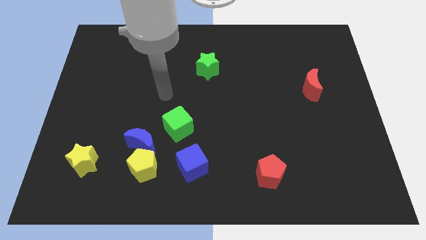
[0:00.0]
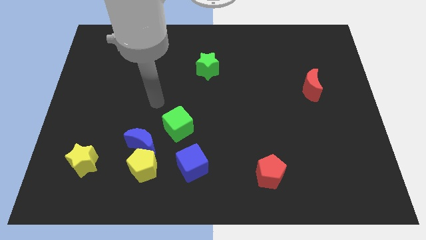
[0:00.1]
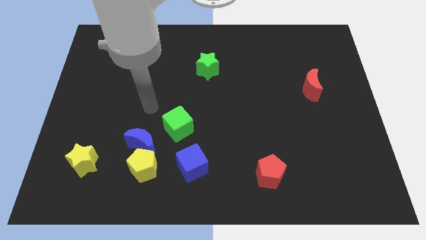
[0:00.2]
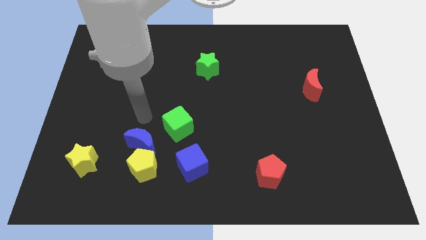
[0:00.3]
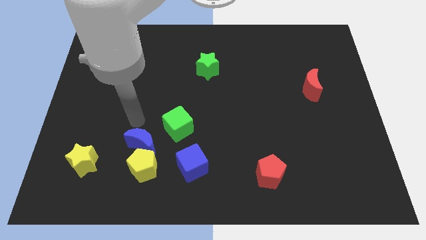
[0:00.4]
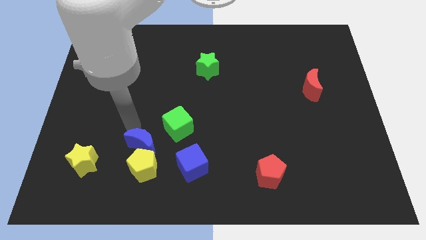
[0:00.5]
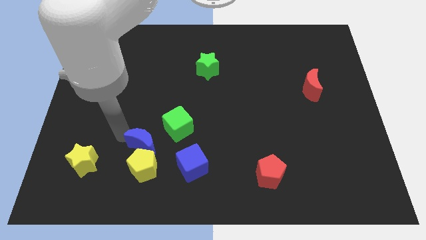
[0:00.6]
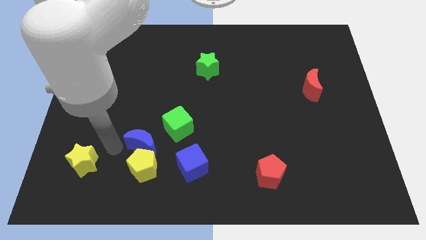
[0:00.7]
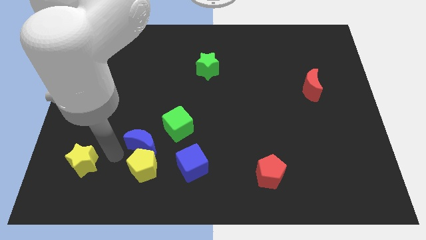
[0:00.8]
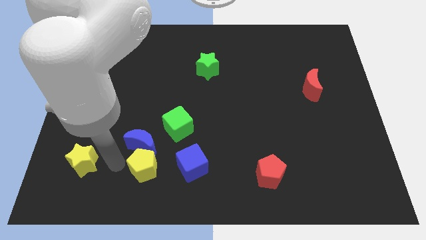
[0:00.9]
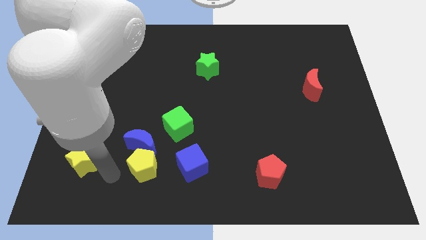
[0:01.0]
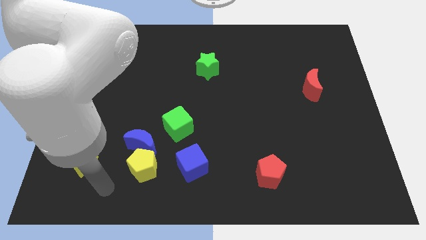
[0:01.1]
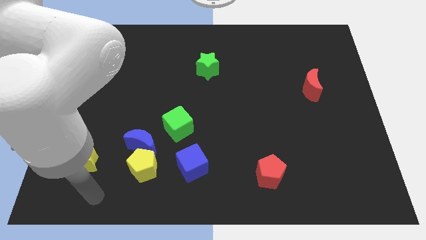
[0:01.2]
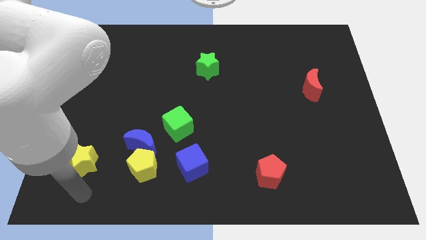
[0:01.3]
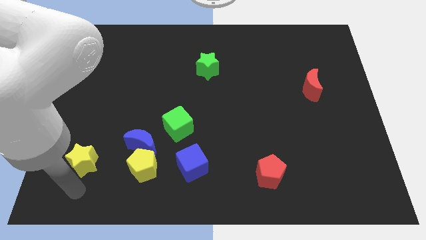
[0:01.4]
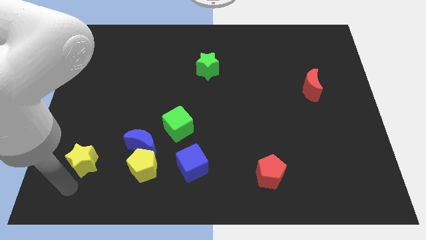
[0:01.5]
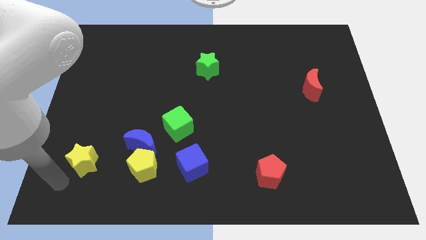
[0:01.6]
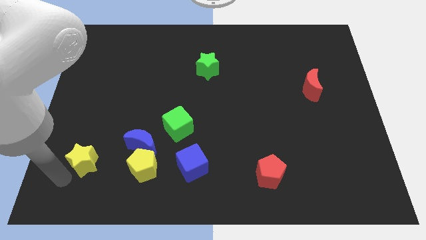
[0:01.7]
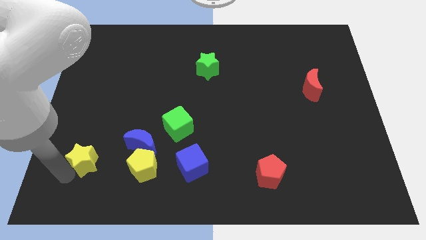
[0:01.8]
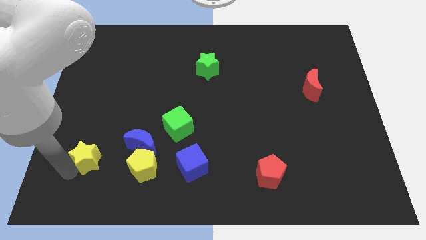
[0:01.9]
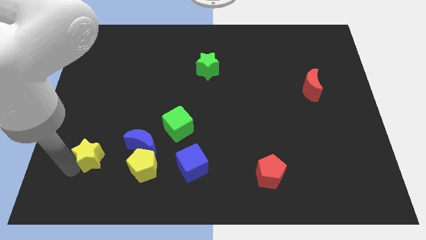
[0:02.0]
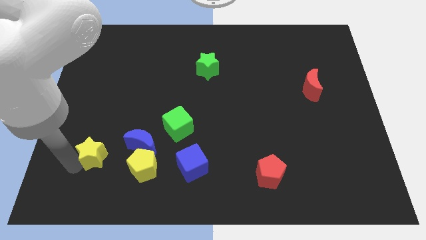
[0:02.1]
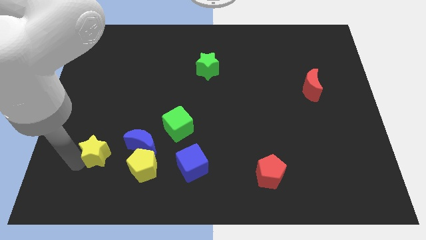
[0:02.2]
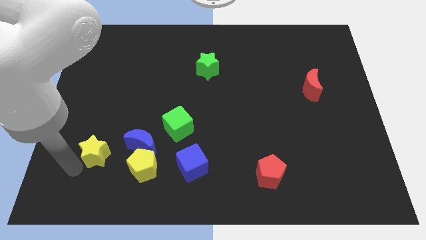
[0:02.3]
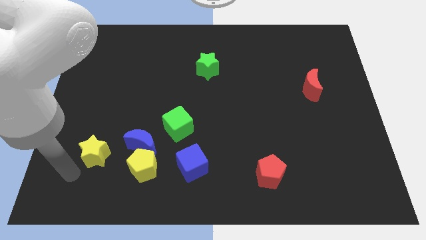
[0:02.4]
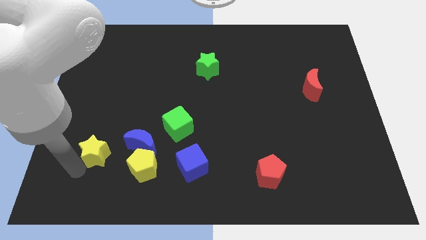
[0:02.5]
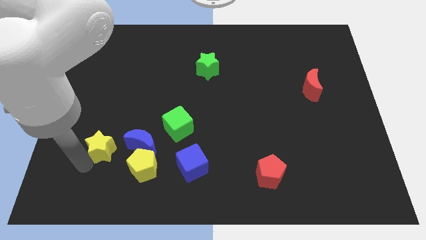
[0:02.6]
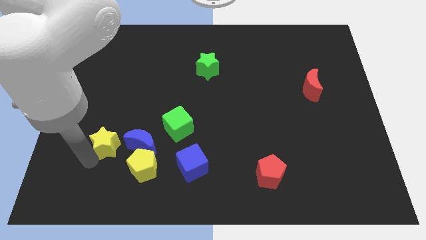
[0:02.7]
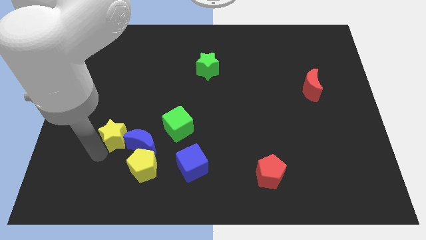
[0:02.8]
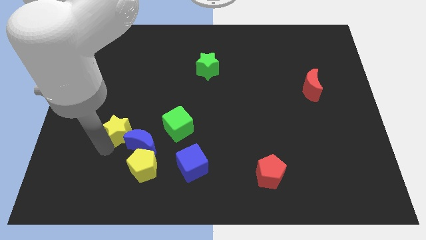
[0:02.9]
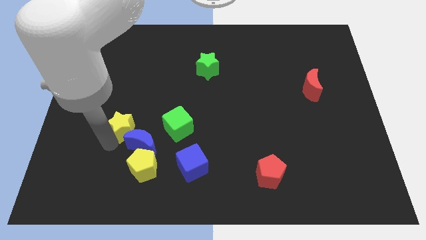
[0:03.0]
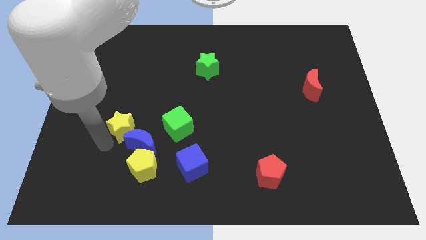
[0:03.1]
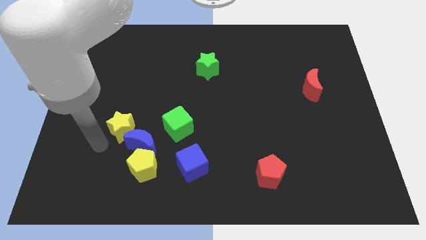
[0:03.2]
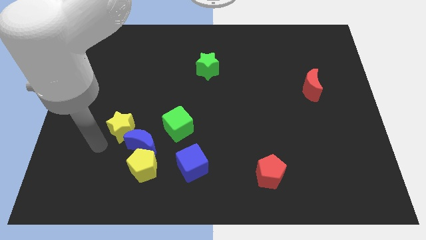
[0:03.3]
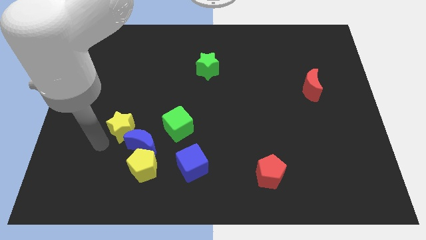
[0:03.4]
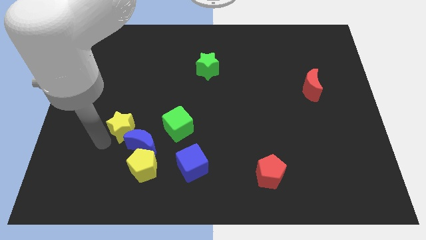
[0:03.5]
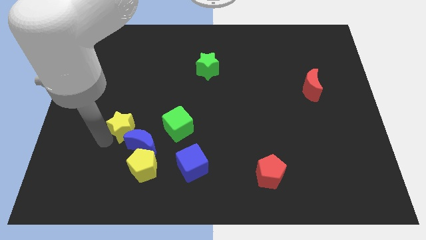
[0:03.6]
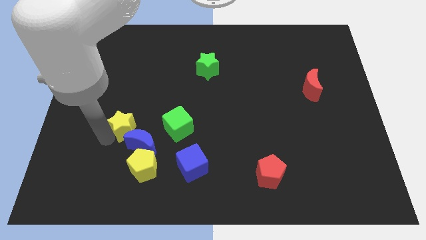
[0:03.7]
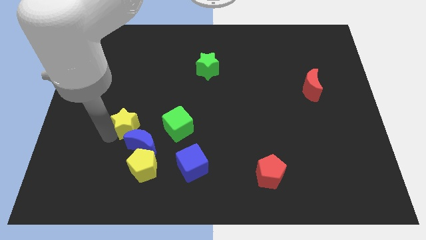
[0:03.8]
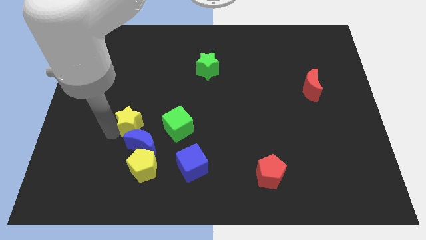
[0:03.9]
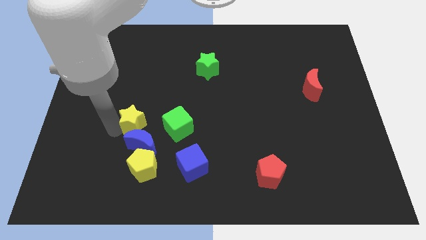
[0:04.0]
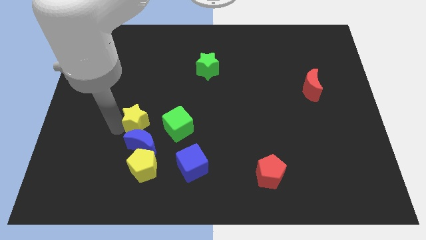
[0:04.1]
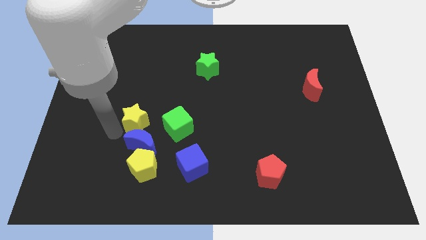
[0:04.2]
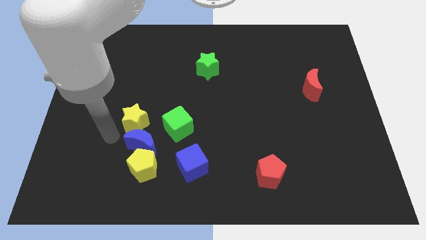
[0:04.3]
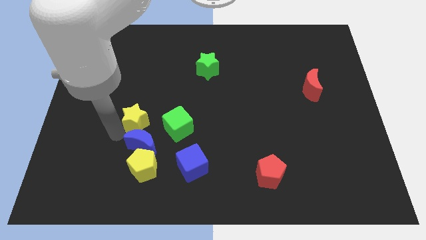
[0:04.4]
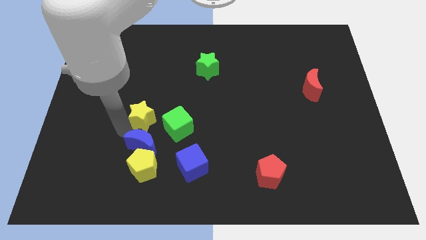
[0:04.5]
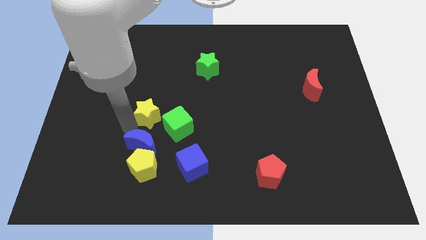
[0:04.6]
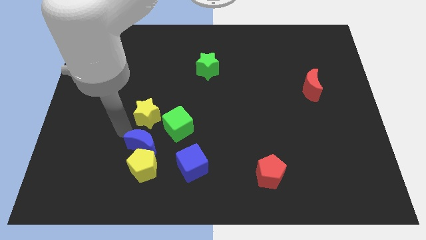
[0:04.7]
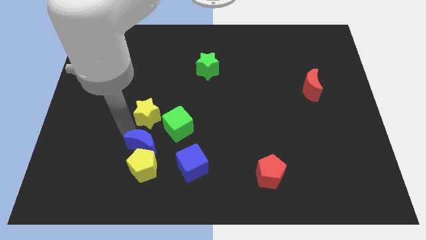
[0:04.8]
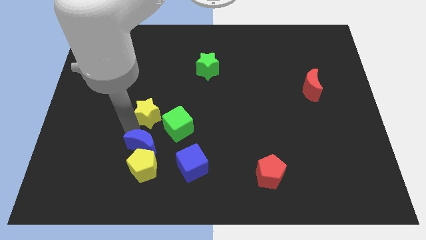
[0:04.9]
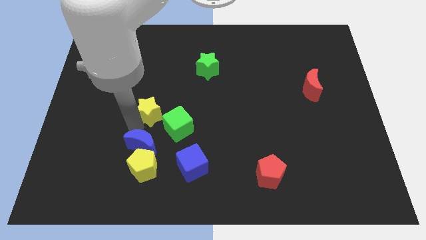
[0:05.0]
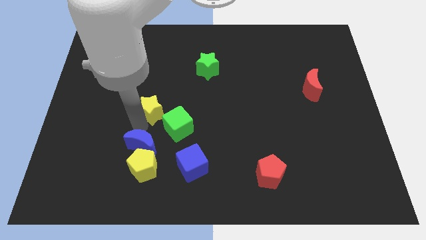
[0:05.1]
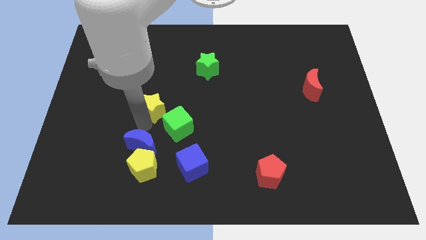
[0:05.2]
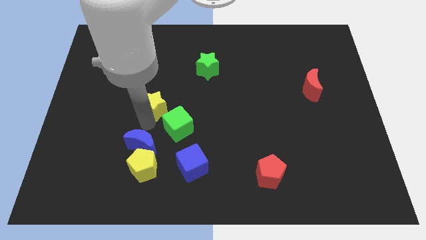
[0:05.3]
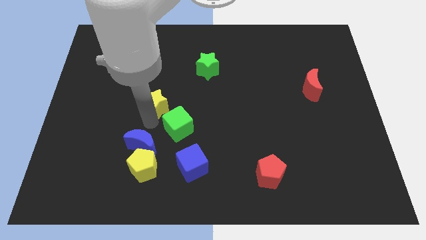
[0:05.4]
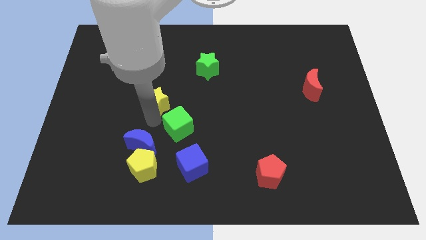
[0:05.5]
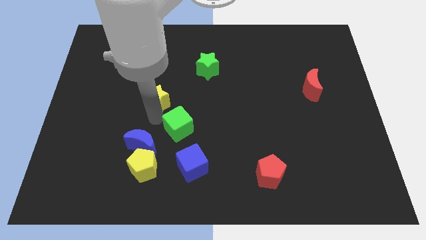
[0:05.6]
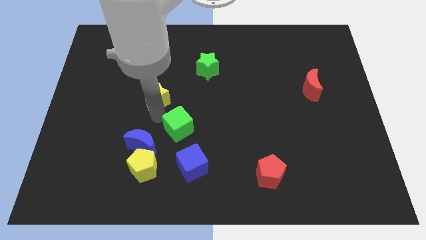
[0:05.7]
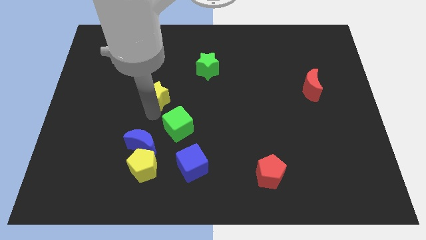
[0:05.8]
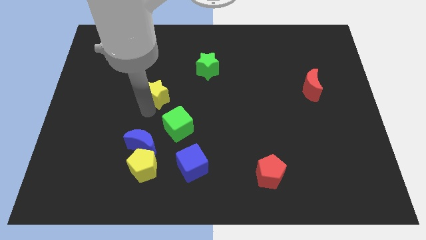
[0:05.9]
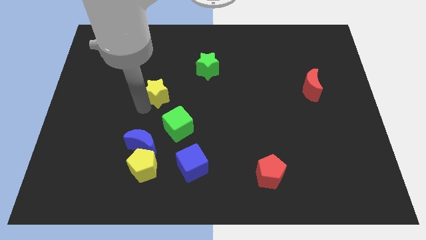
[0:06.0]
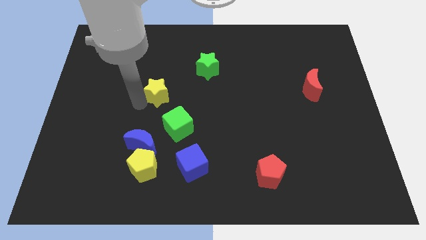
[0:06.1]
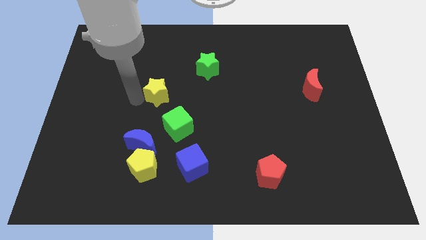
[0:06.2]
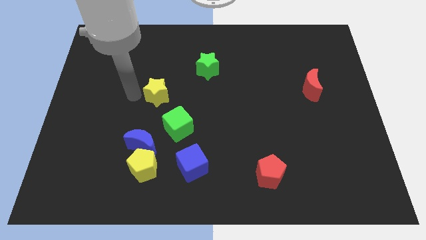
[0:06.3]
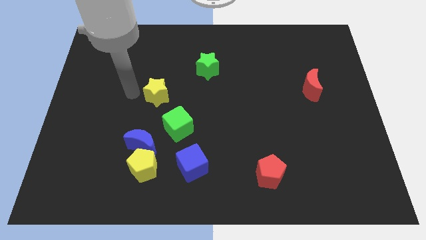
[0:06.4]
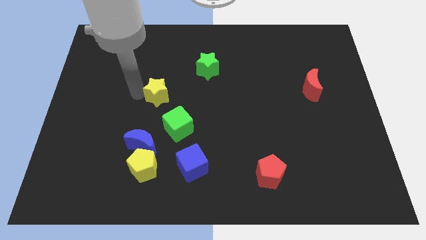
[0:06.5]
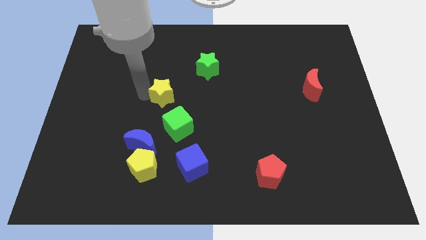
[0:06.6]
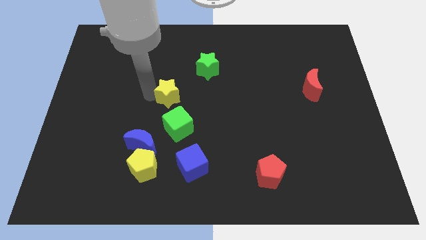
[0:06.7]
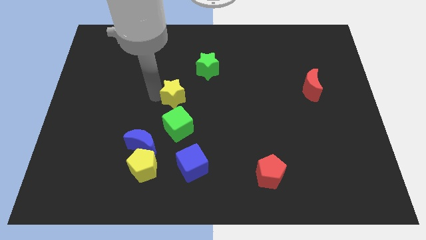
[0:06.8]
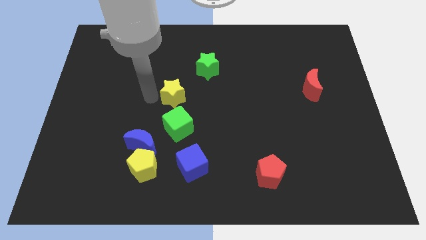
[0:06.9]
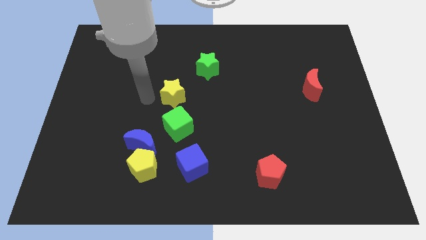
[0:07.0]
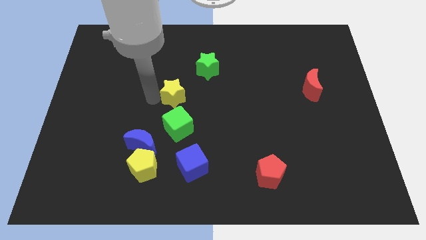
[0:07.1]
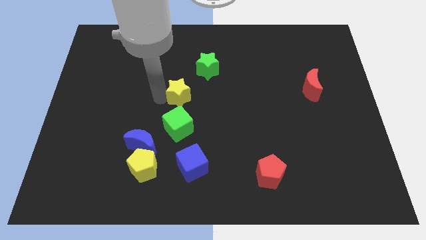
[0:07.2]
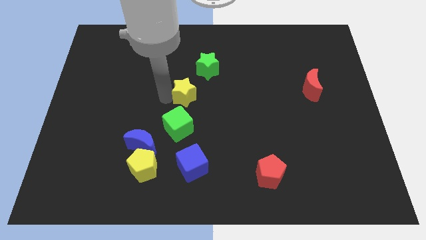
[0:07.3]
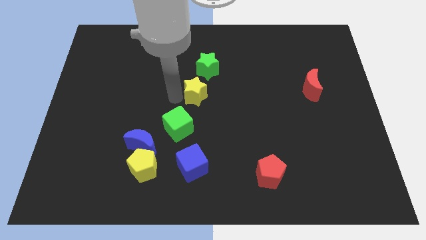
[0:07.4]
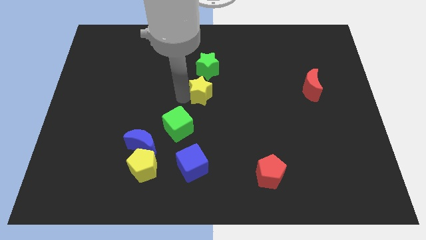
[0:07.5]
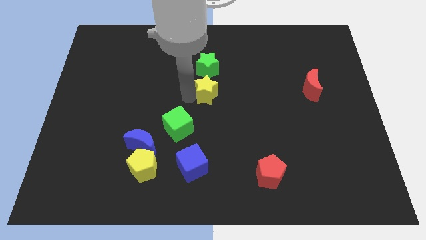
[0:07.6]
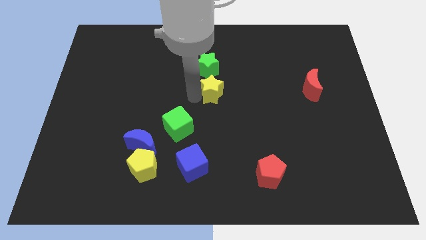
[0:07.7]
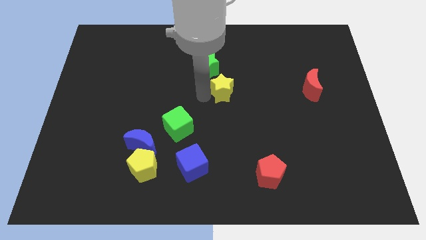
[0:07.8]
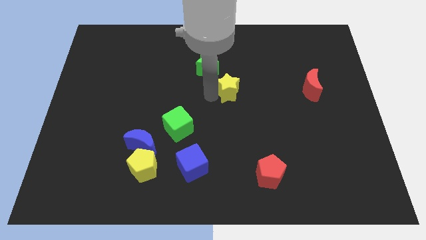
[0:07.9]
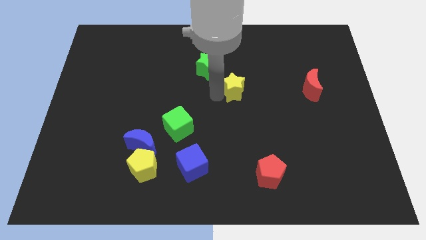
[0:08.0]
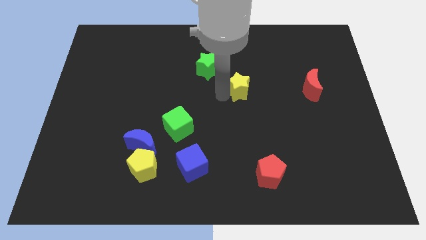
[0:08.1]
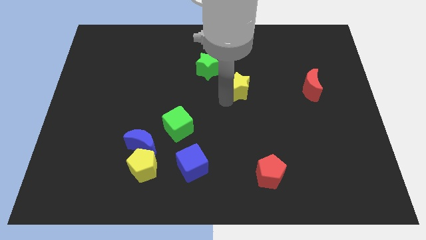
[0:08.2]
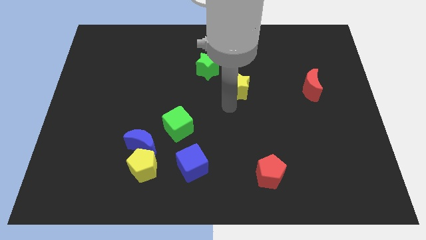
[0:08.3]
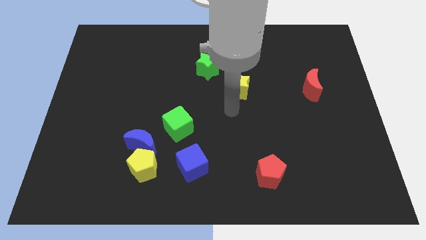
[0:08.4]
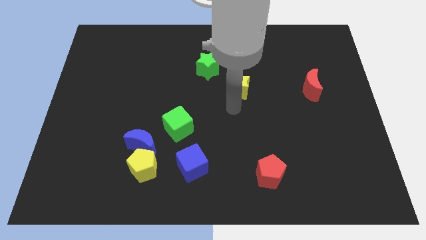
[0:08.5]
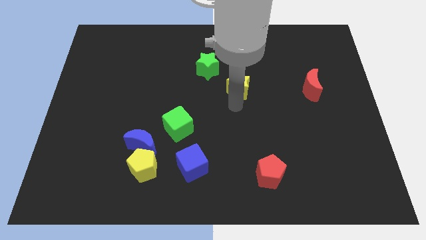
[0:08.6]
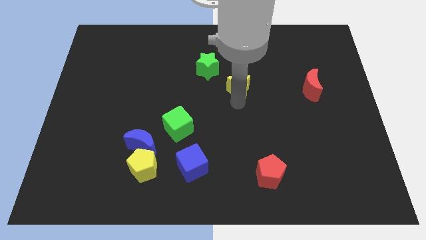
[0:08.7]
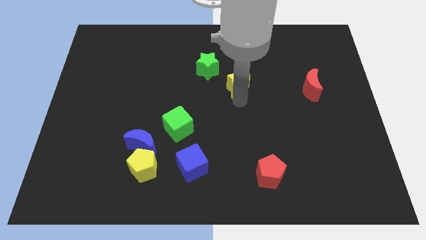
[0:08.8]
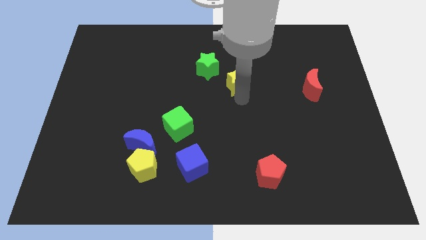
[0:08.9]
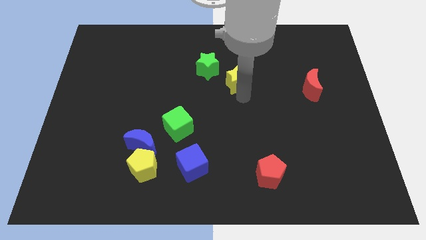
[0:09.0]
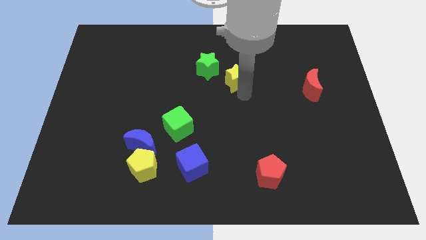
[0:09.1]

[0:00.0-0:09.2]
move the yellow star just right of the green star
